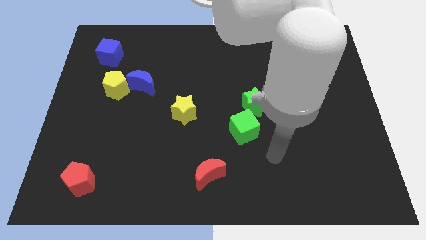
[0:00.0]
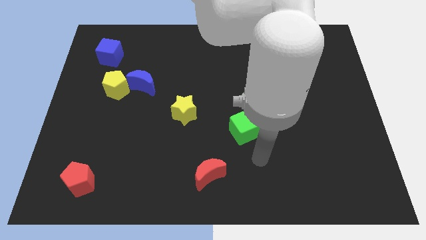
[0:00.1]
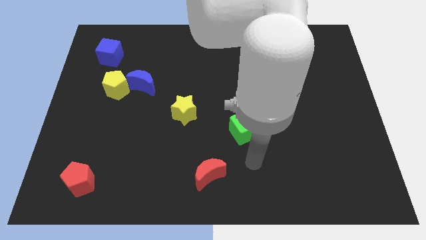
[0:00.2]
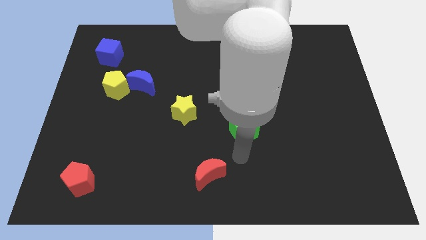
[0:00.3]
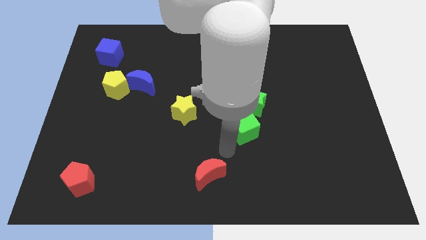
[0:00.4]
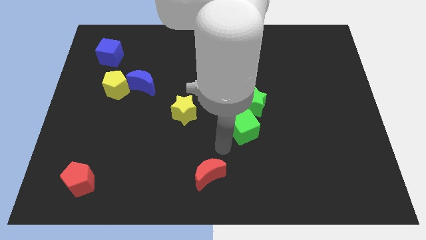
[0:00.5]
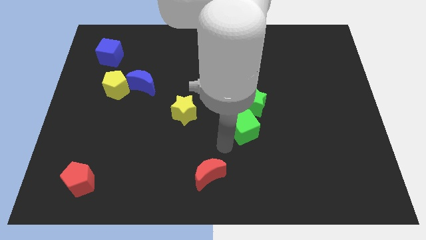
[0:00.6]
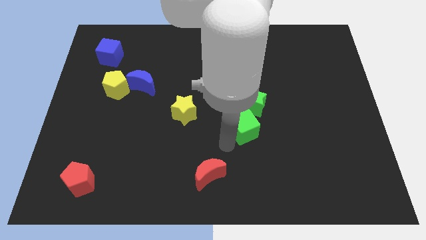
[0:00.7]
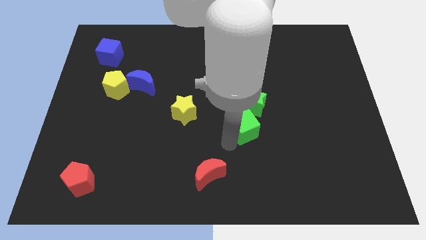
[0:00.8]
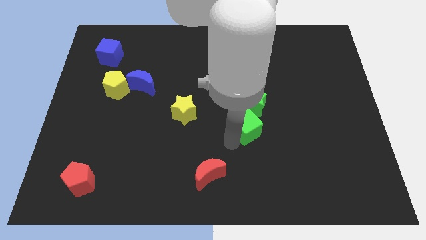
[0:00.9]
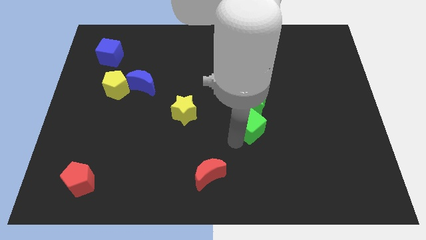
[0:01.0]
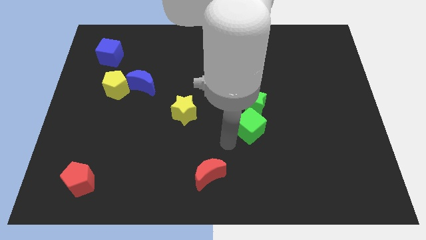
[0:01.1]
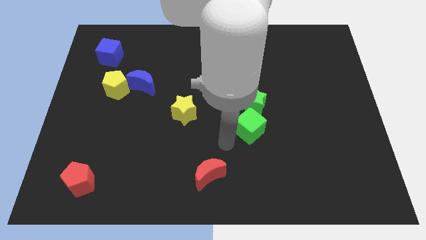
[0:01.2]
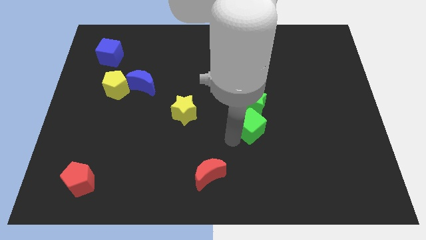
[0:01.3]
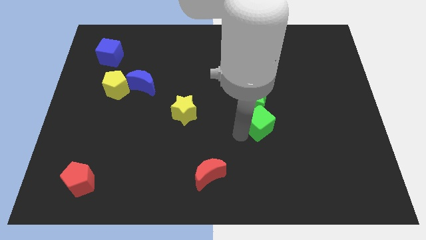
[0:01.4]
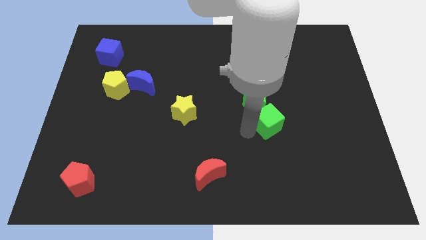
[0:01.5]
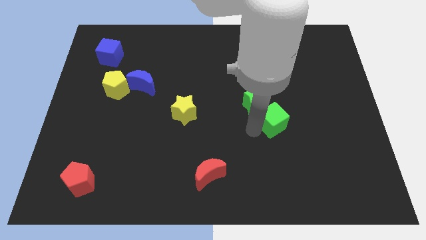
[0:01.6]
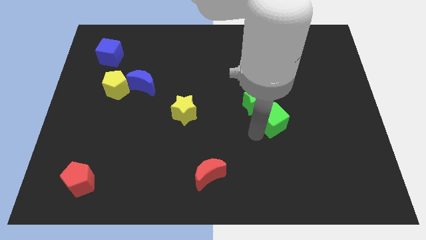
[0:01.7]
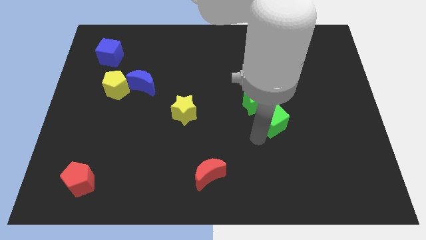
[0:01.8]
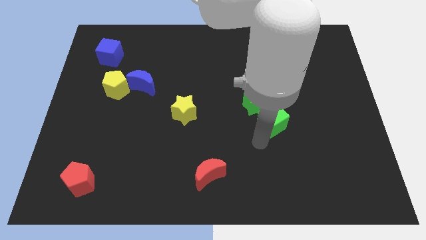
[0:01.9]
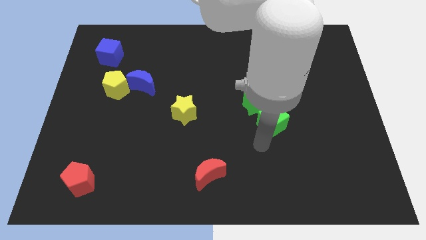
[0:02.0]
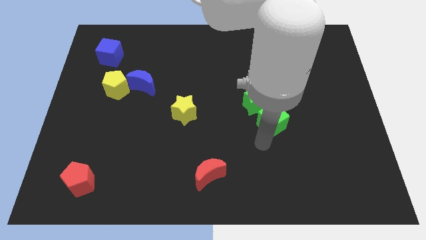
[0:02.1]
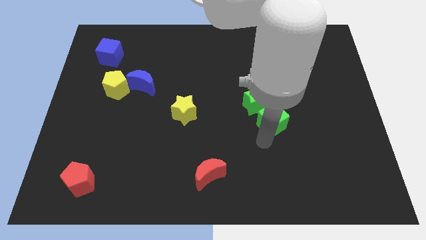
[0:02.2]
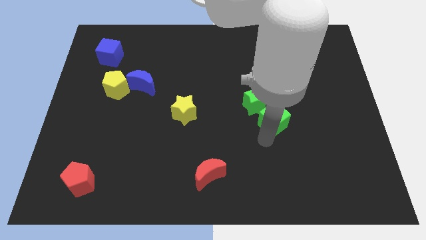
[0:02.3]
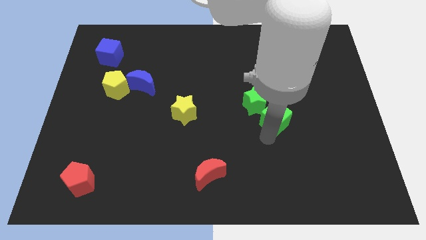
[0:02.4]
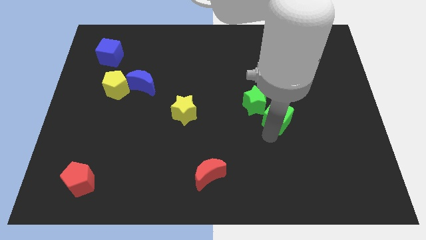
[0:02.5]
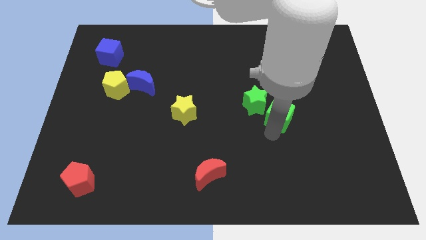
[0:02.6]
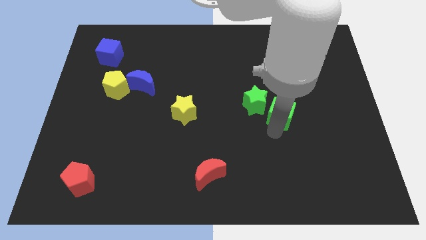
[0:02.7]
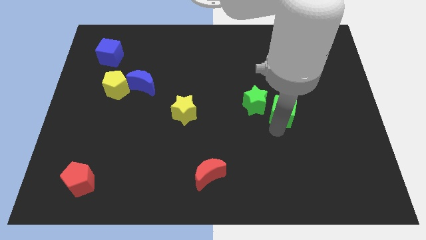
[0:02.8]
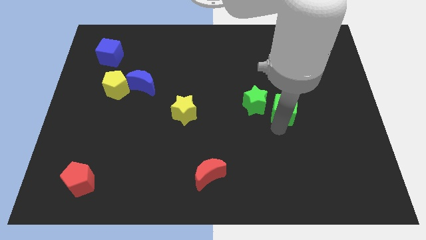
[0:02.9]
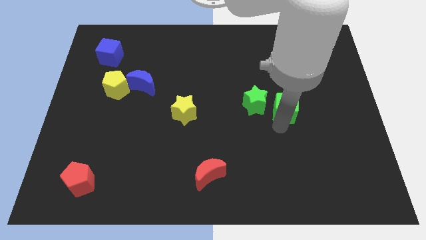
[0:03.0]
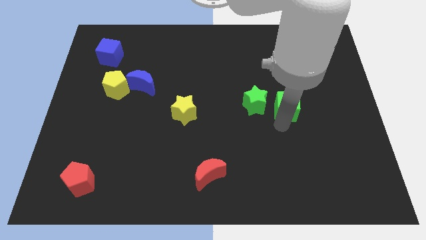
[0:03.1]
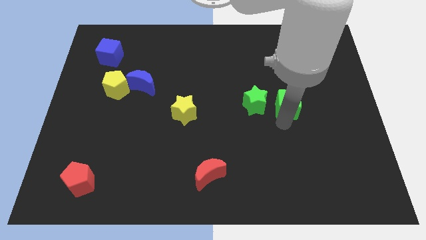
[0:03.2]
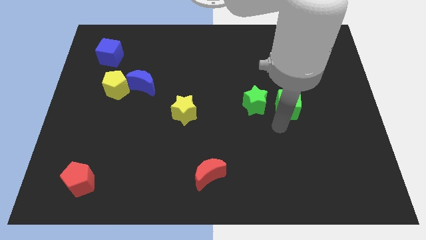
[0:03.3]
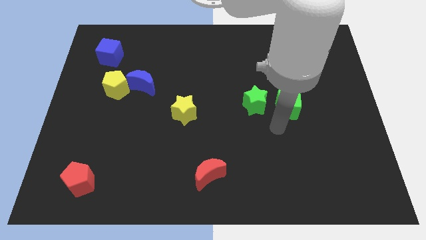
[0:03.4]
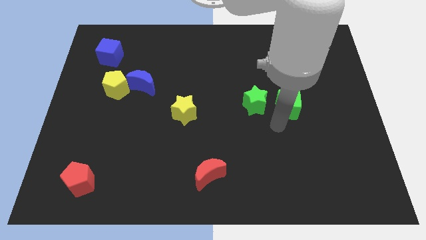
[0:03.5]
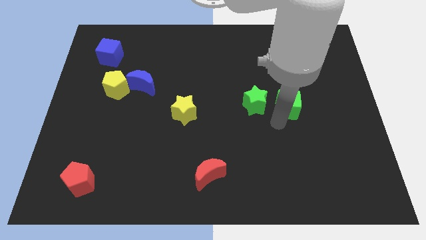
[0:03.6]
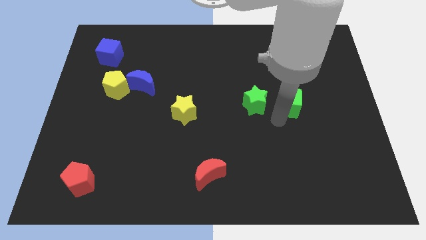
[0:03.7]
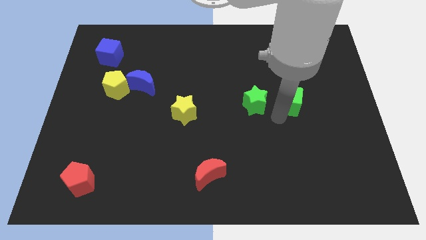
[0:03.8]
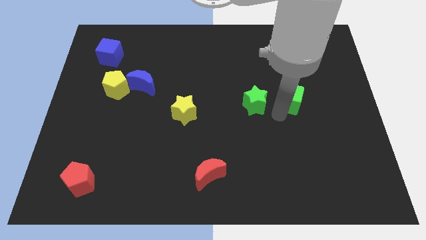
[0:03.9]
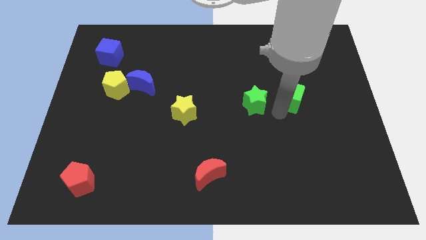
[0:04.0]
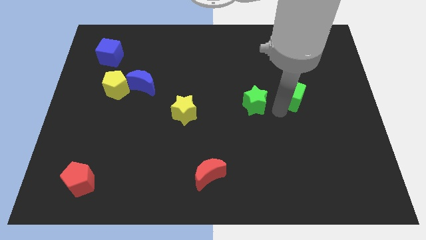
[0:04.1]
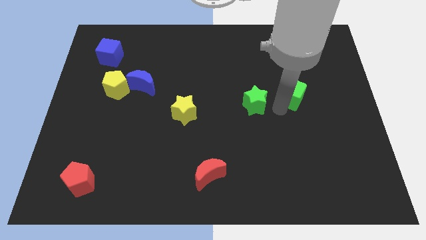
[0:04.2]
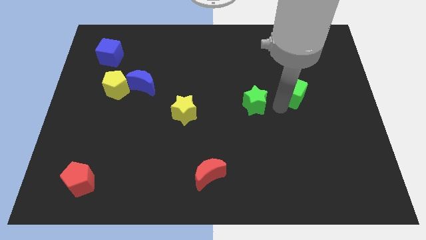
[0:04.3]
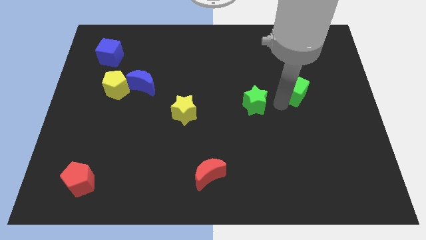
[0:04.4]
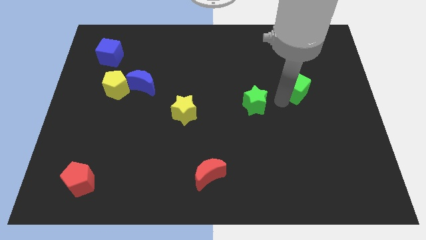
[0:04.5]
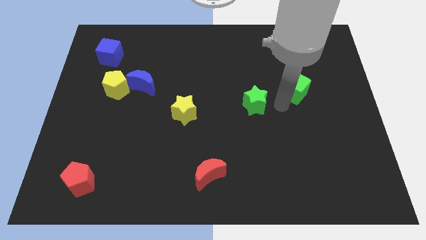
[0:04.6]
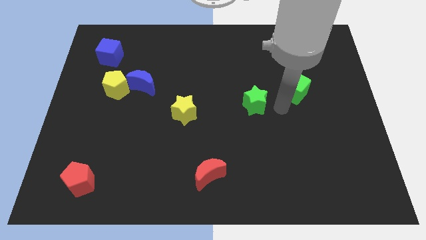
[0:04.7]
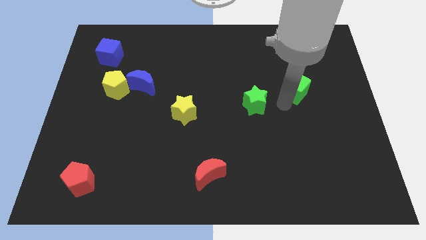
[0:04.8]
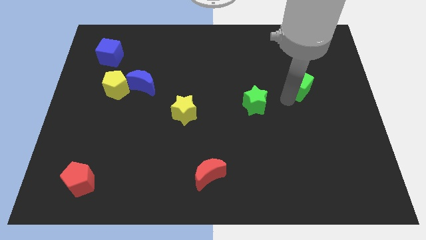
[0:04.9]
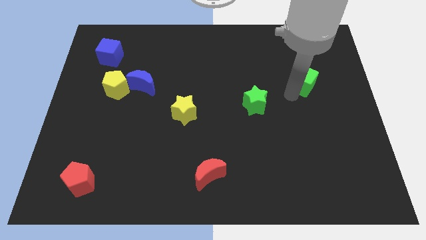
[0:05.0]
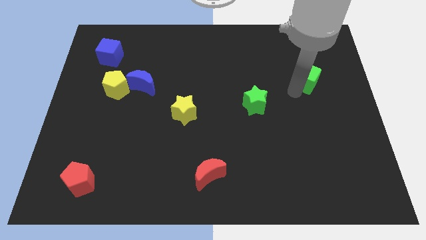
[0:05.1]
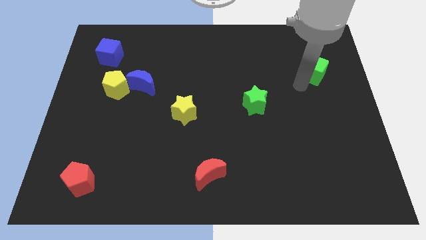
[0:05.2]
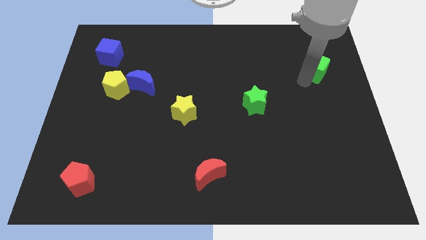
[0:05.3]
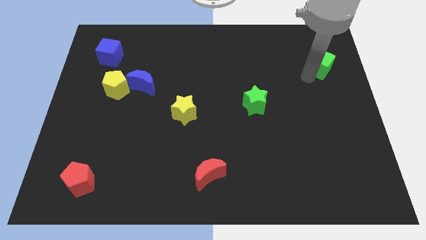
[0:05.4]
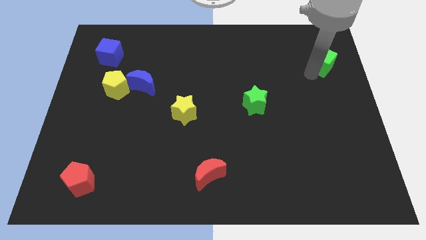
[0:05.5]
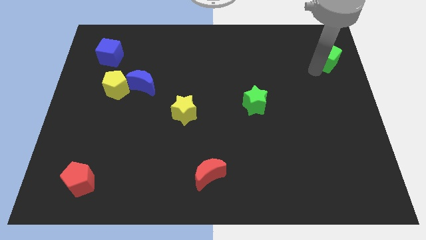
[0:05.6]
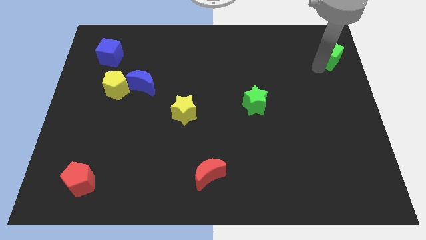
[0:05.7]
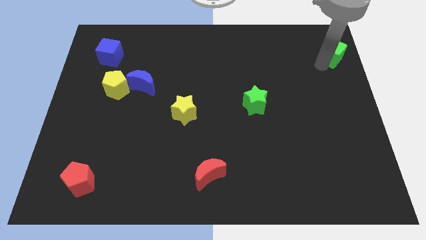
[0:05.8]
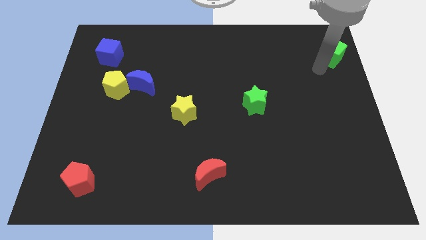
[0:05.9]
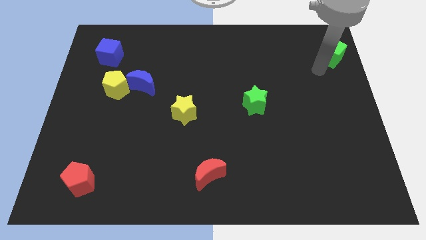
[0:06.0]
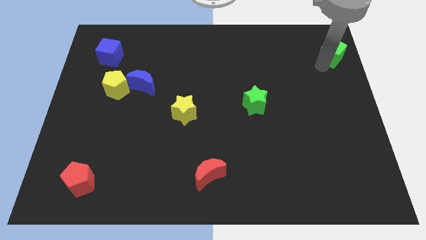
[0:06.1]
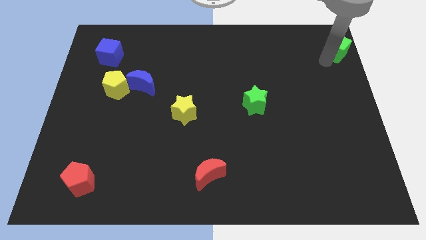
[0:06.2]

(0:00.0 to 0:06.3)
push the green cube to the upper right corner
